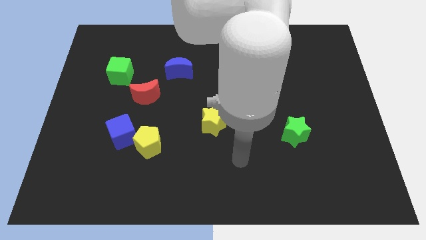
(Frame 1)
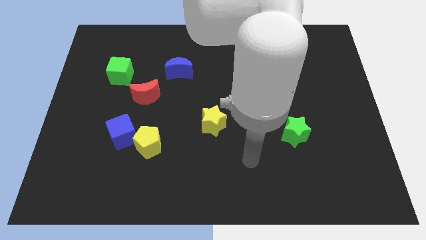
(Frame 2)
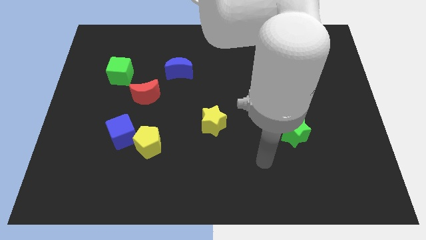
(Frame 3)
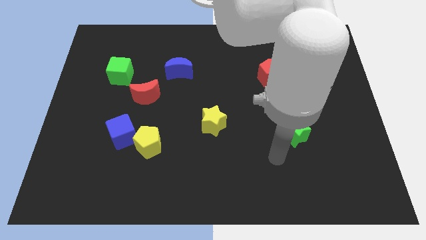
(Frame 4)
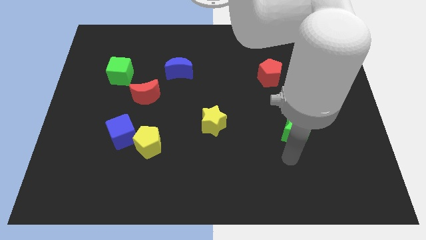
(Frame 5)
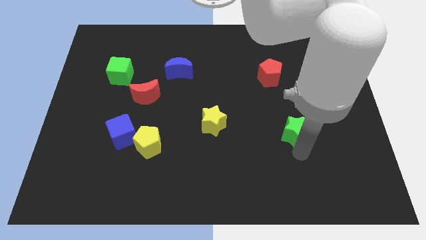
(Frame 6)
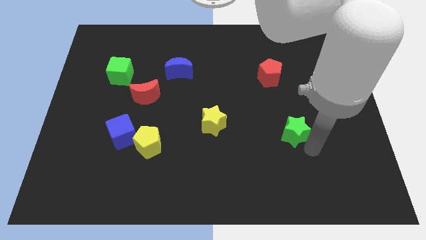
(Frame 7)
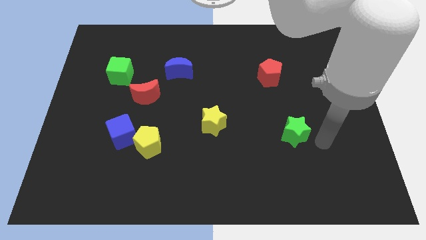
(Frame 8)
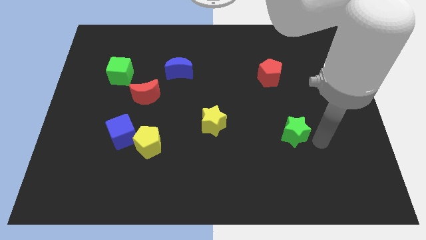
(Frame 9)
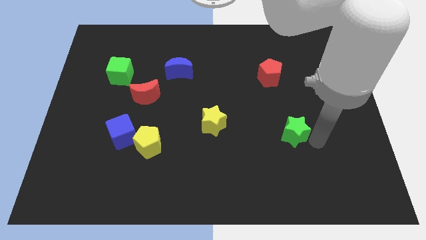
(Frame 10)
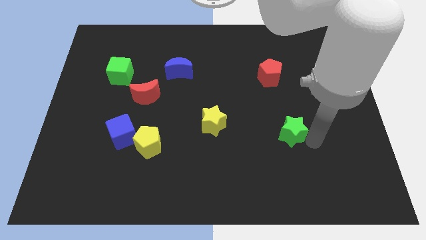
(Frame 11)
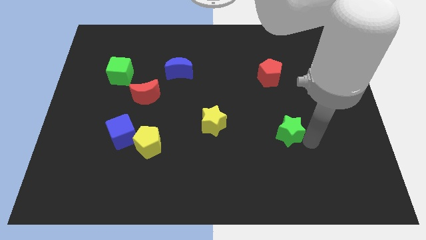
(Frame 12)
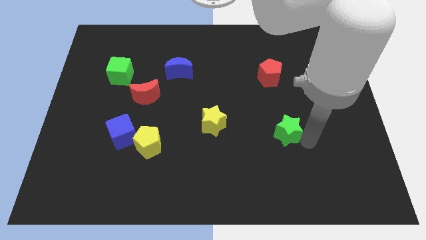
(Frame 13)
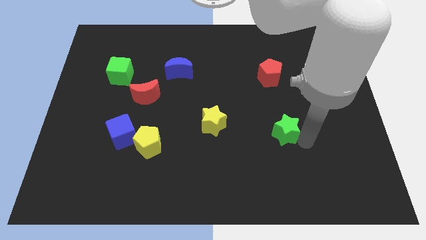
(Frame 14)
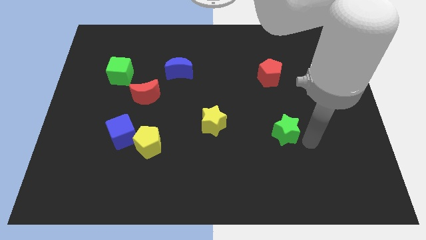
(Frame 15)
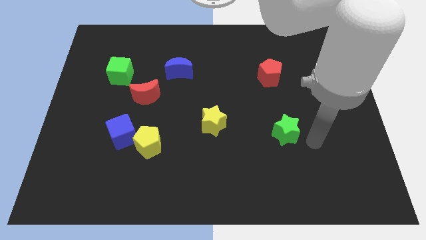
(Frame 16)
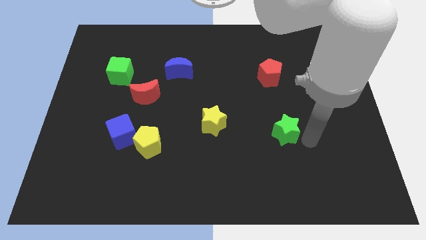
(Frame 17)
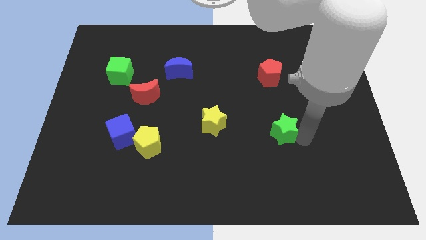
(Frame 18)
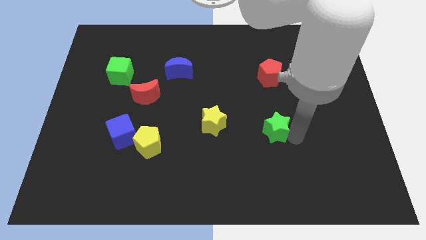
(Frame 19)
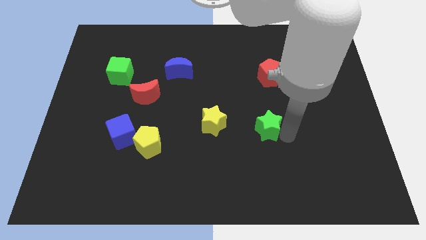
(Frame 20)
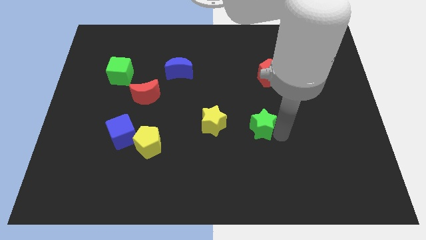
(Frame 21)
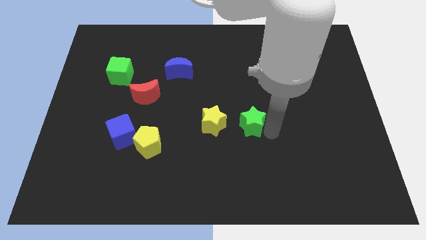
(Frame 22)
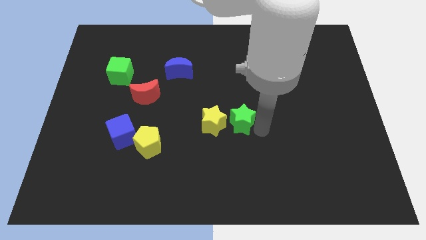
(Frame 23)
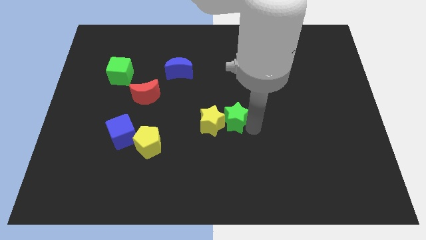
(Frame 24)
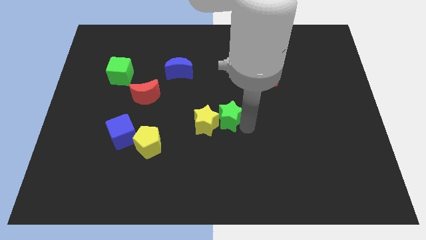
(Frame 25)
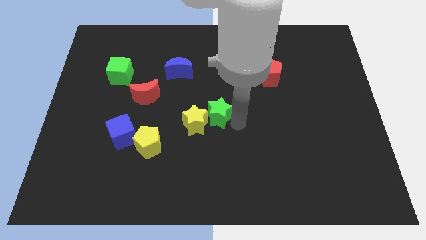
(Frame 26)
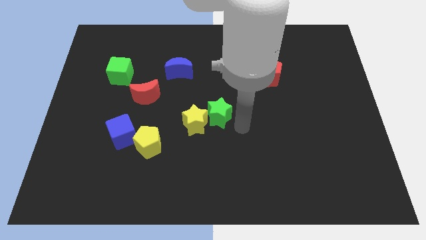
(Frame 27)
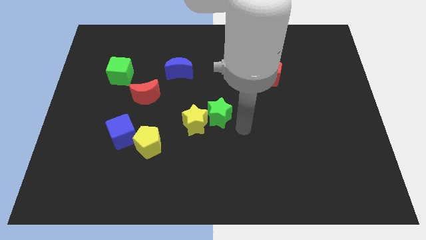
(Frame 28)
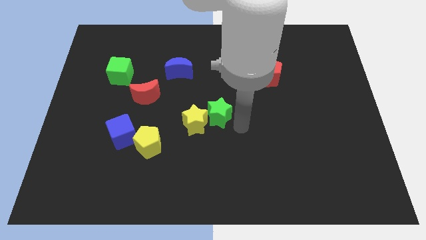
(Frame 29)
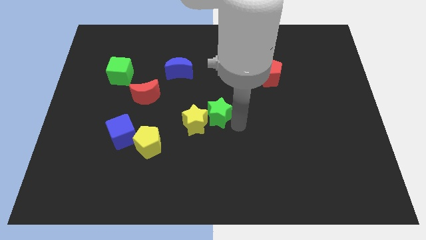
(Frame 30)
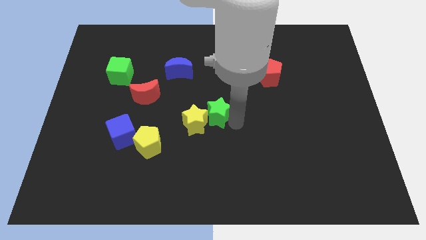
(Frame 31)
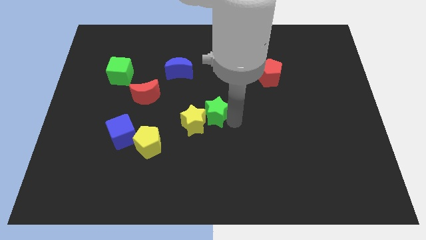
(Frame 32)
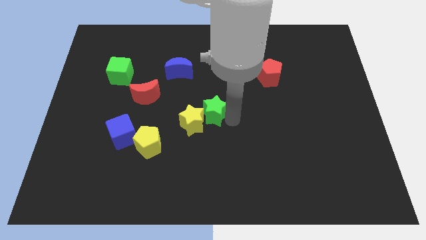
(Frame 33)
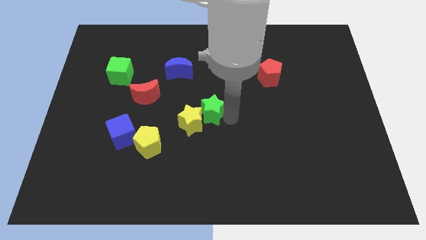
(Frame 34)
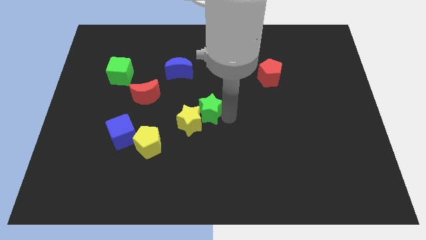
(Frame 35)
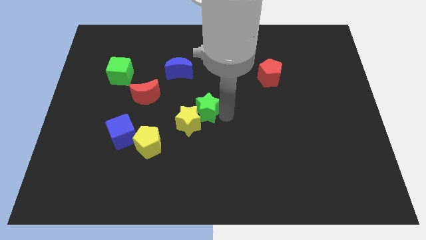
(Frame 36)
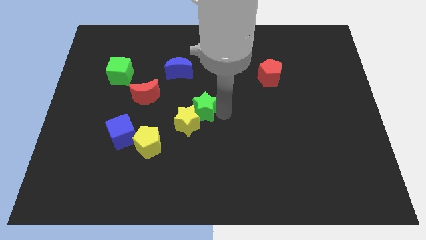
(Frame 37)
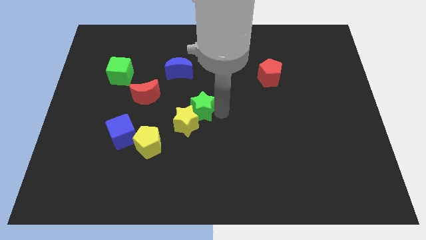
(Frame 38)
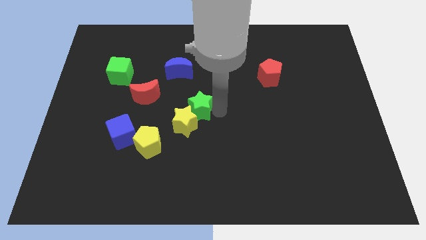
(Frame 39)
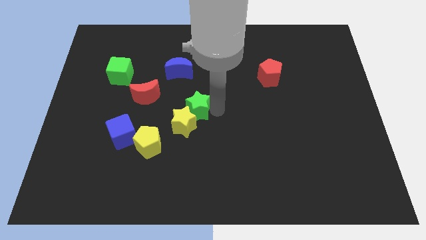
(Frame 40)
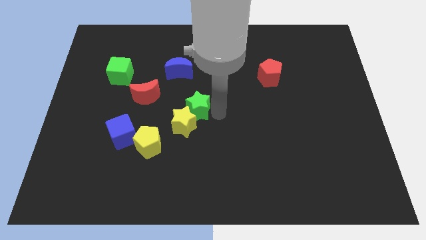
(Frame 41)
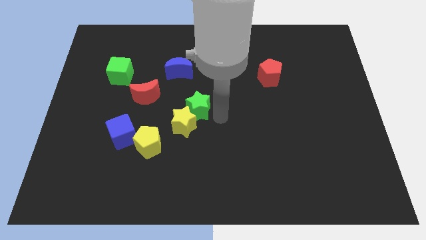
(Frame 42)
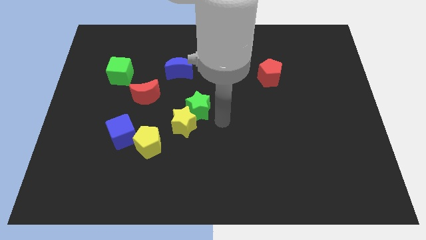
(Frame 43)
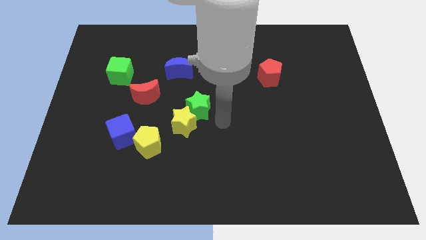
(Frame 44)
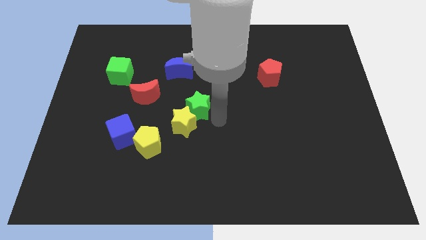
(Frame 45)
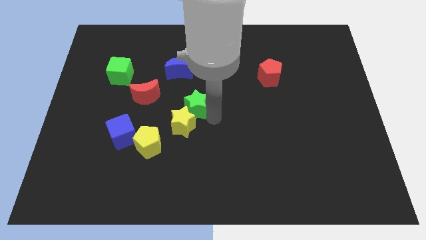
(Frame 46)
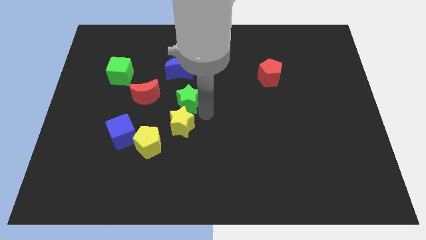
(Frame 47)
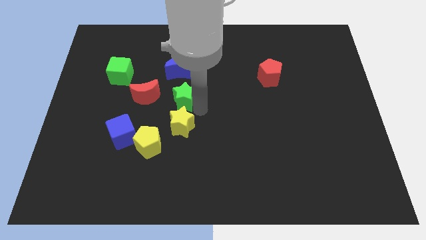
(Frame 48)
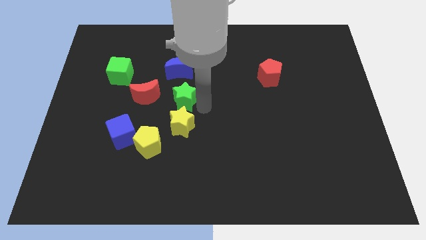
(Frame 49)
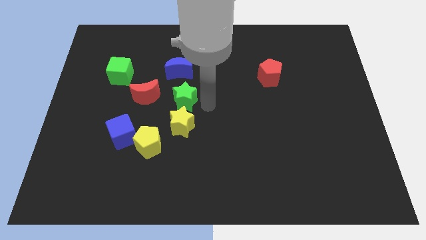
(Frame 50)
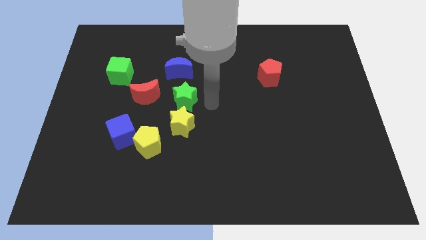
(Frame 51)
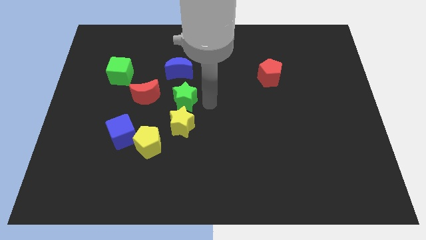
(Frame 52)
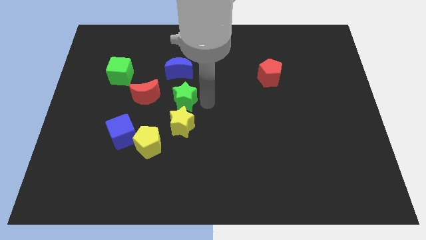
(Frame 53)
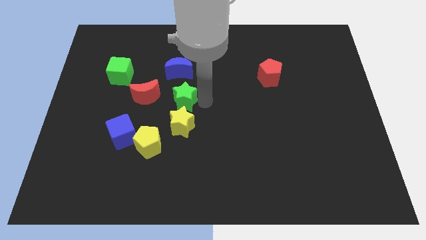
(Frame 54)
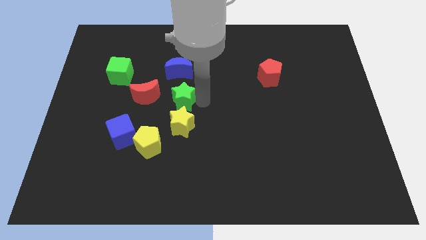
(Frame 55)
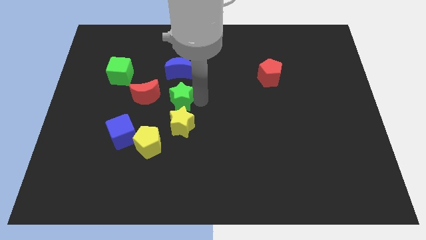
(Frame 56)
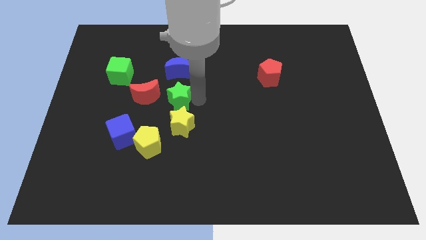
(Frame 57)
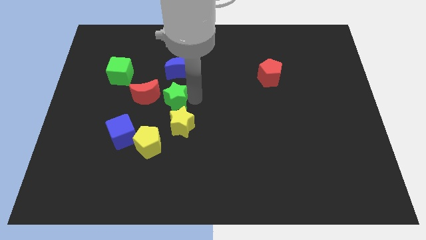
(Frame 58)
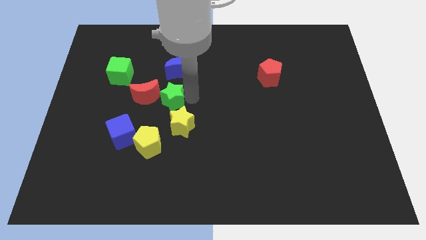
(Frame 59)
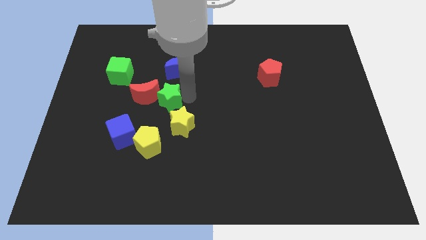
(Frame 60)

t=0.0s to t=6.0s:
push the green star close to the red moon

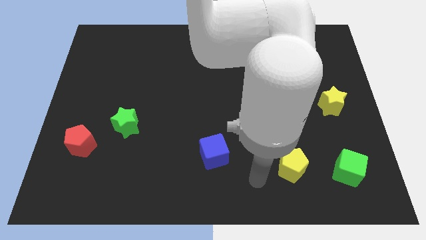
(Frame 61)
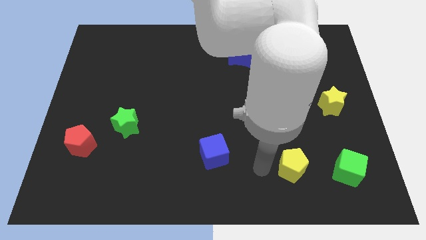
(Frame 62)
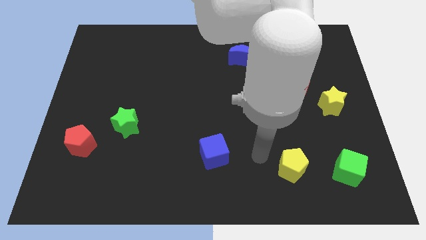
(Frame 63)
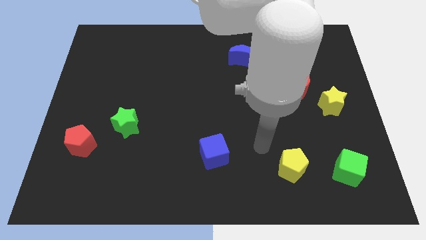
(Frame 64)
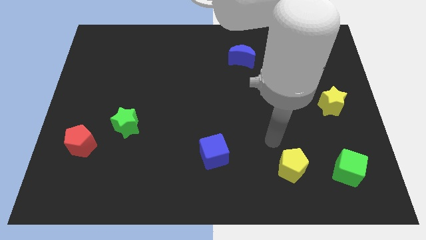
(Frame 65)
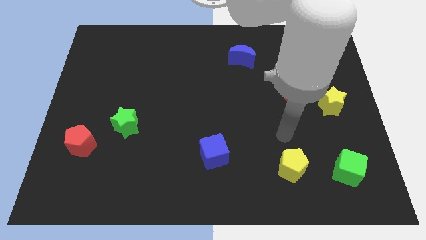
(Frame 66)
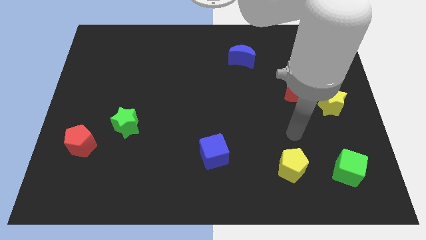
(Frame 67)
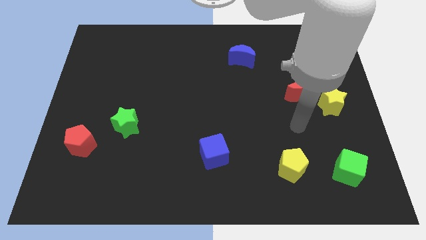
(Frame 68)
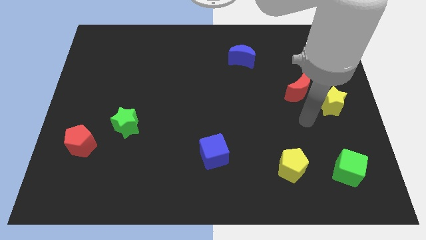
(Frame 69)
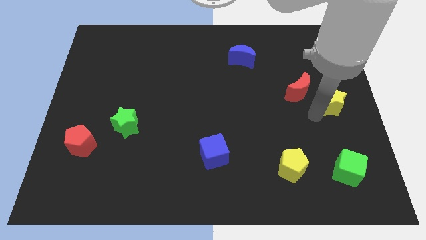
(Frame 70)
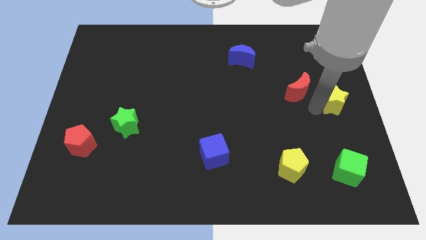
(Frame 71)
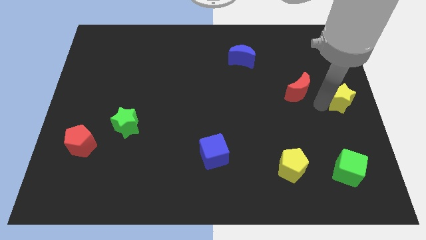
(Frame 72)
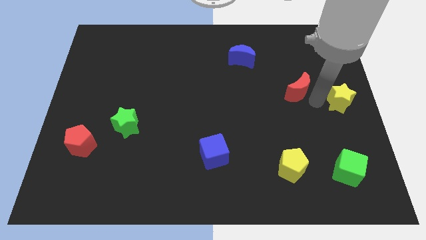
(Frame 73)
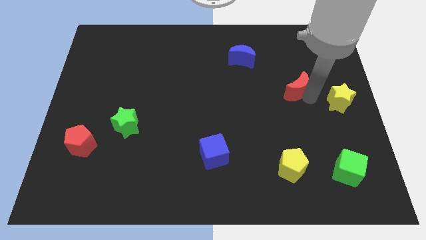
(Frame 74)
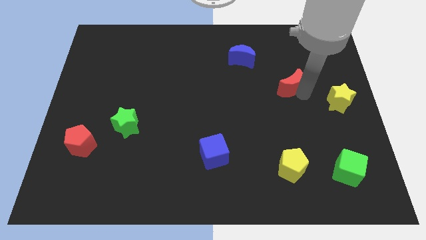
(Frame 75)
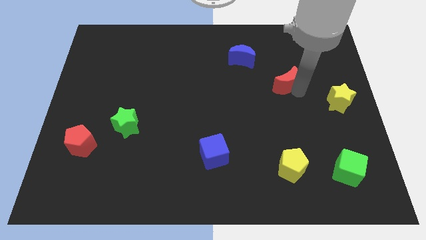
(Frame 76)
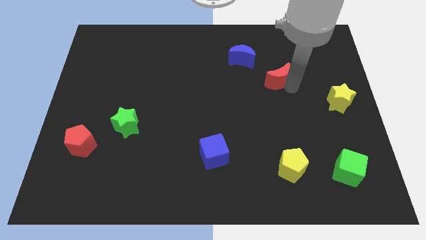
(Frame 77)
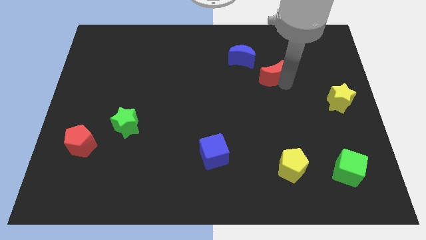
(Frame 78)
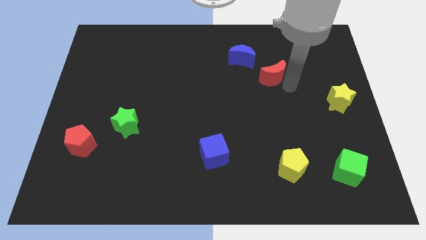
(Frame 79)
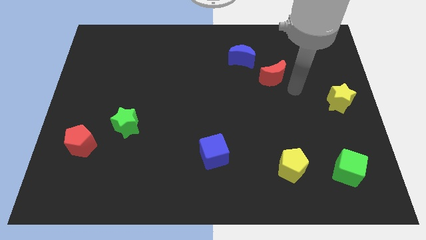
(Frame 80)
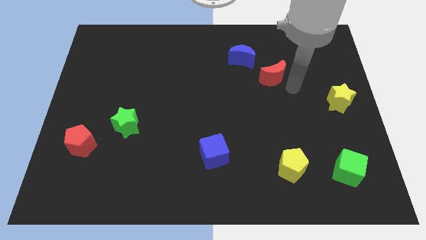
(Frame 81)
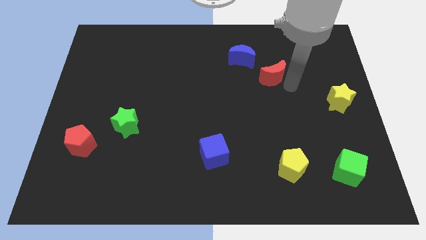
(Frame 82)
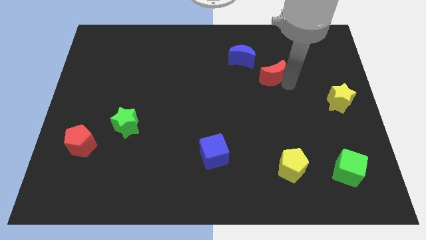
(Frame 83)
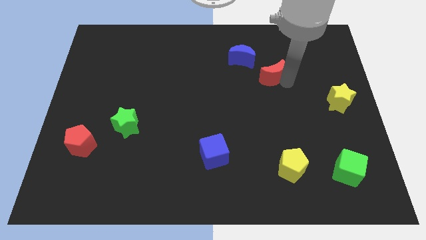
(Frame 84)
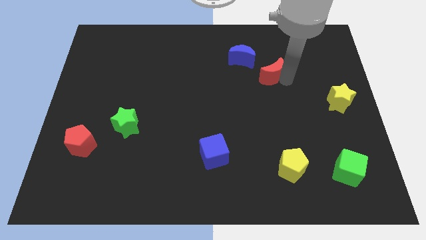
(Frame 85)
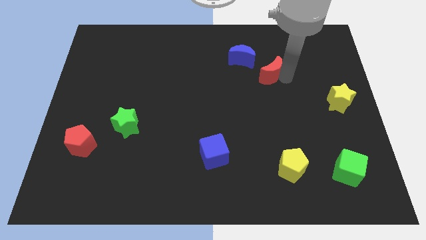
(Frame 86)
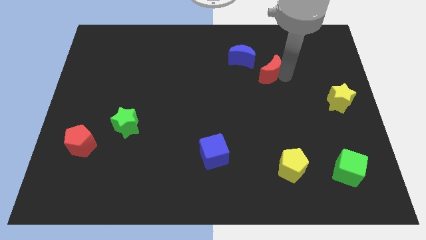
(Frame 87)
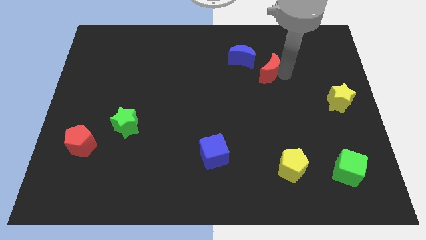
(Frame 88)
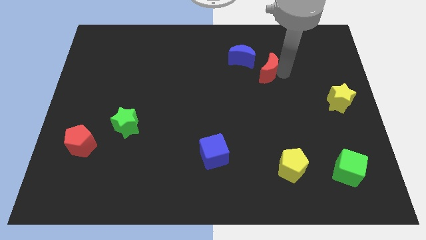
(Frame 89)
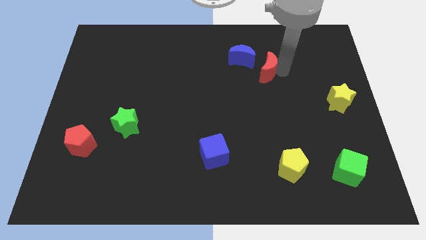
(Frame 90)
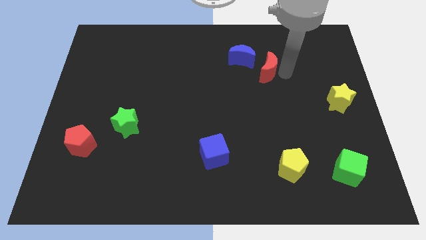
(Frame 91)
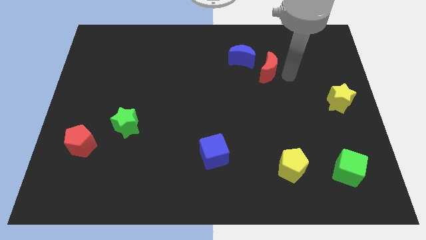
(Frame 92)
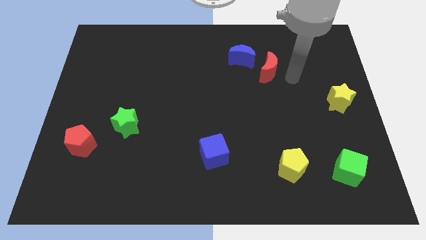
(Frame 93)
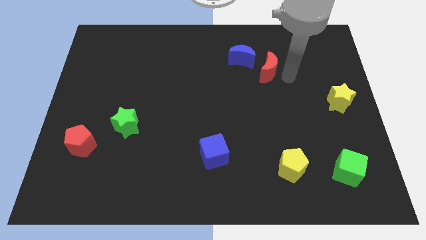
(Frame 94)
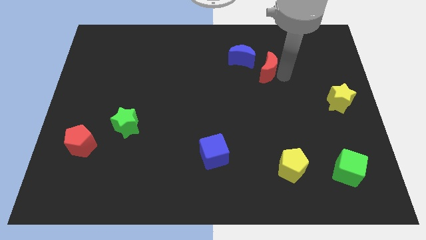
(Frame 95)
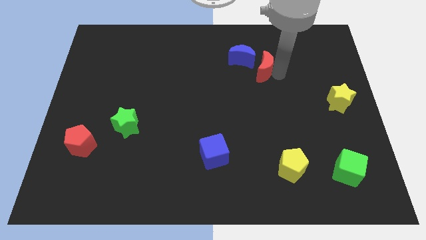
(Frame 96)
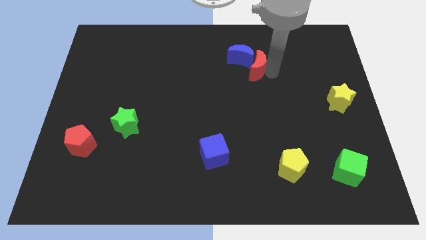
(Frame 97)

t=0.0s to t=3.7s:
move the red moon towards the blue moon
